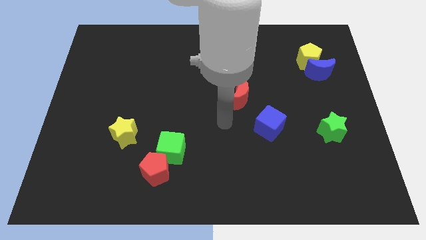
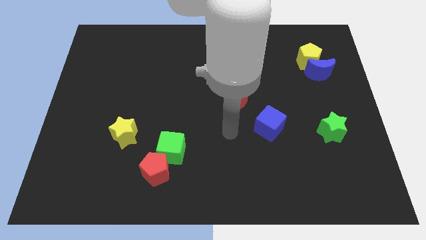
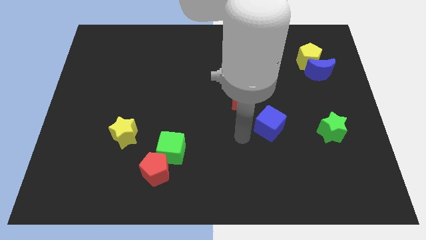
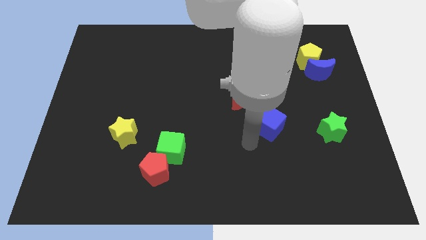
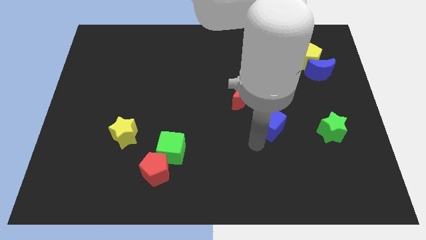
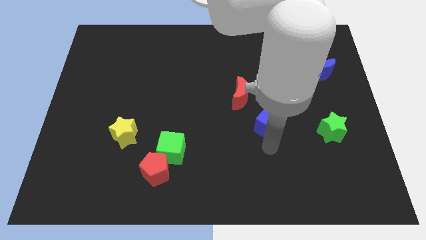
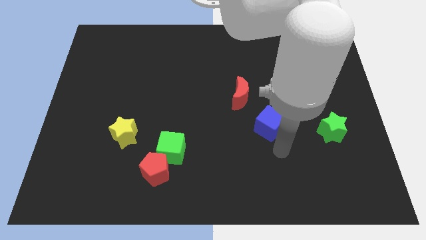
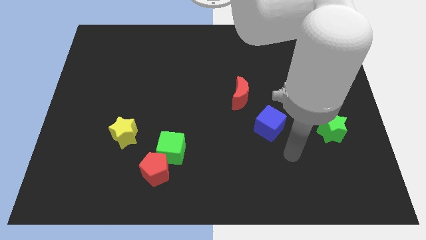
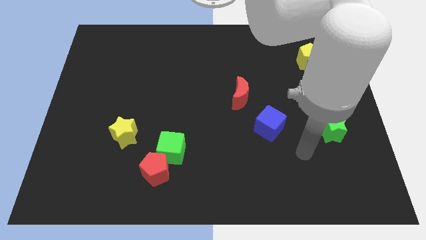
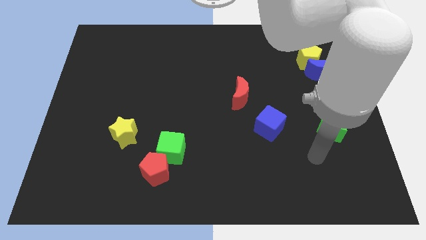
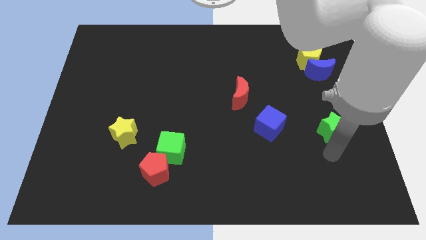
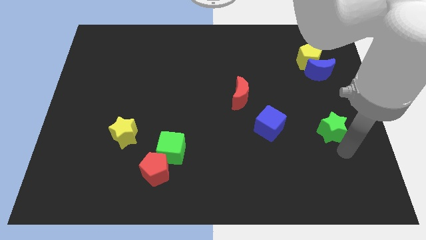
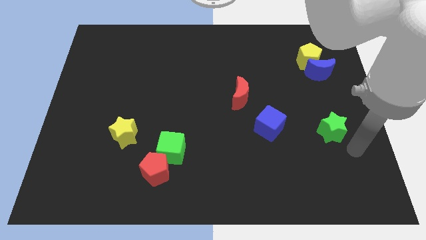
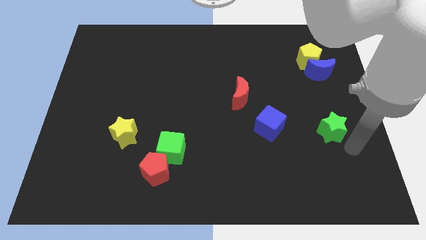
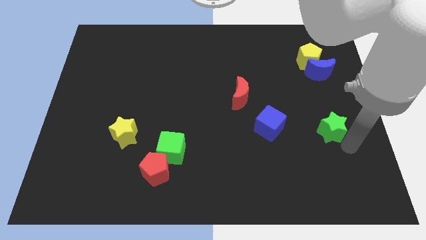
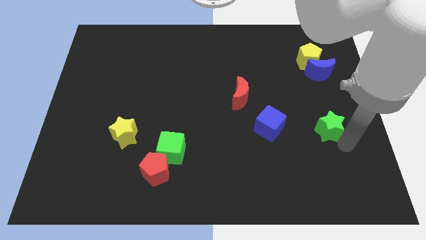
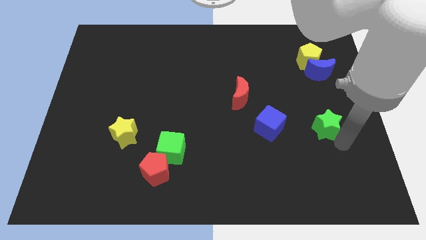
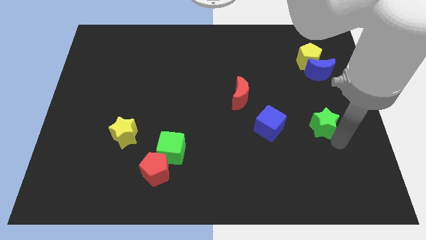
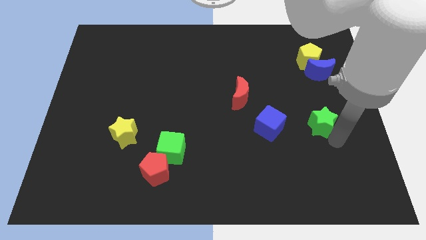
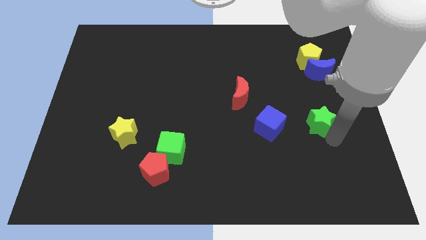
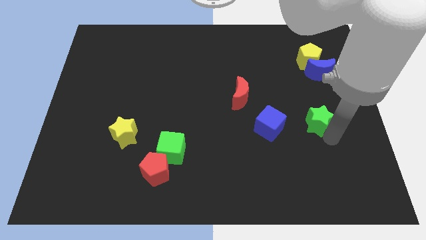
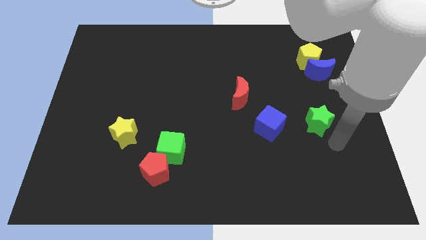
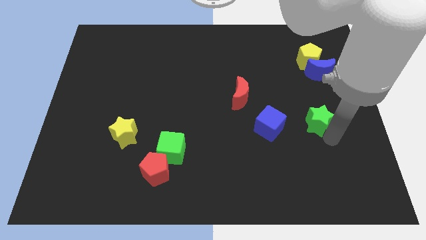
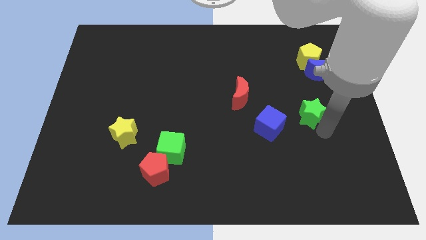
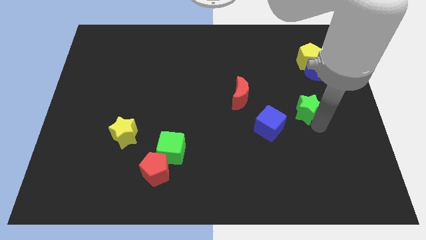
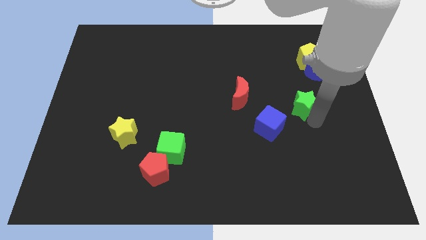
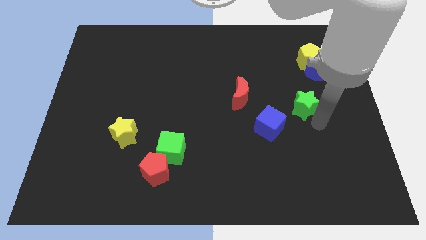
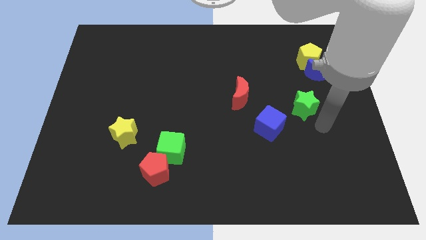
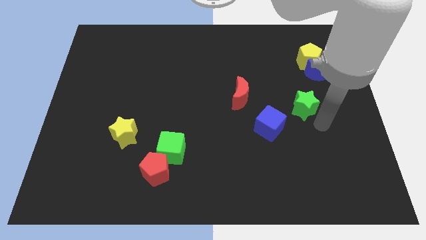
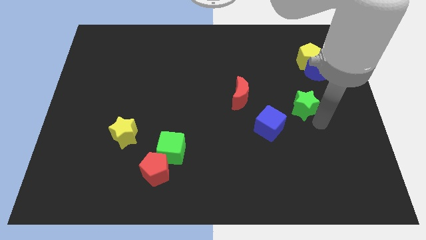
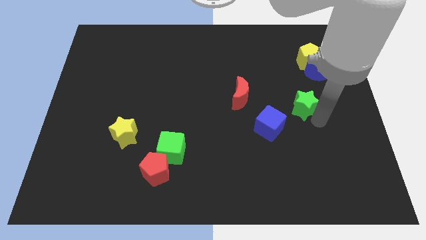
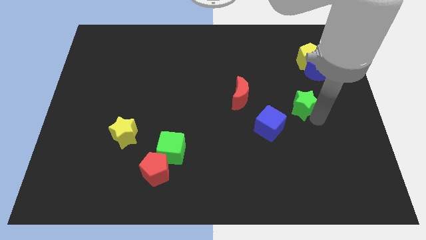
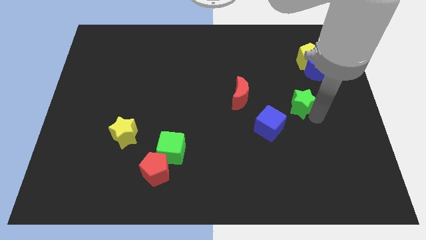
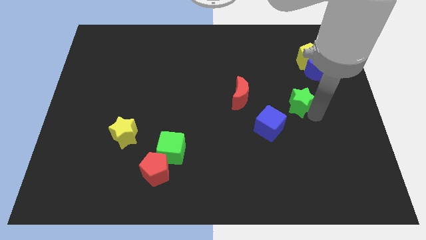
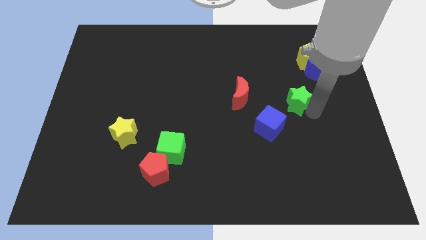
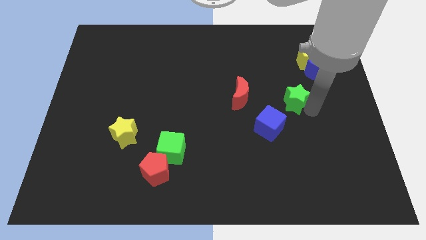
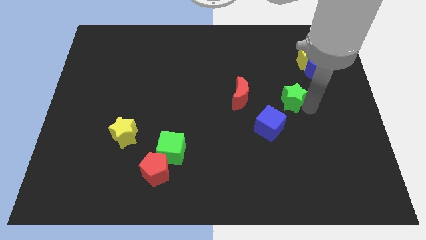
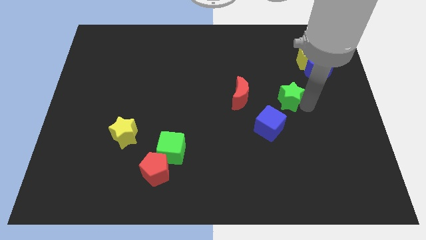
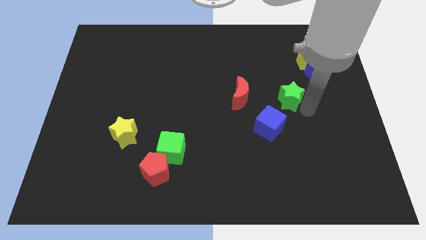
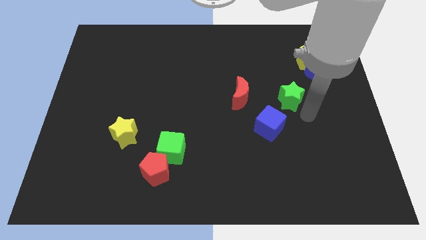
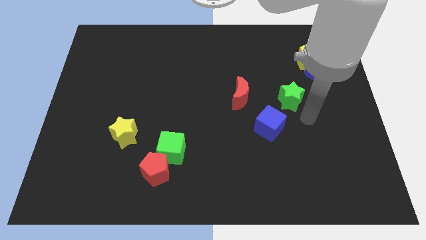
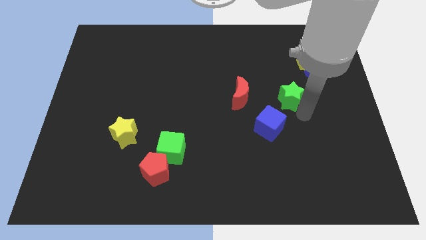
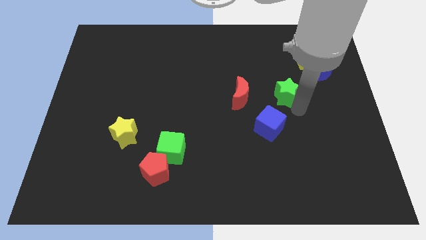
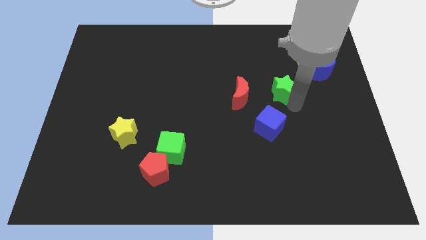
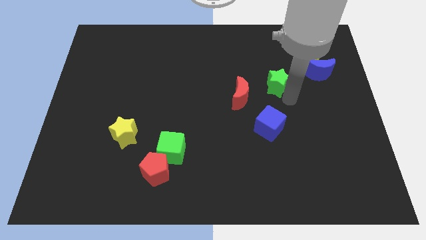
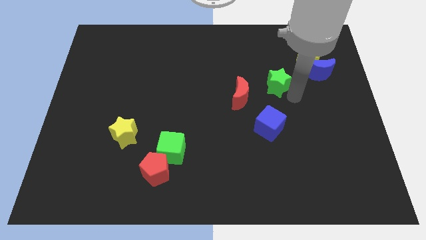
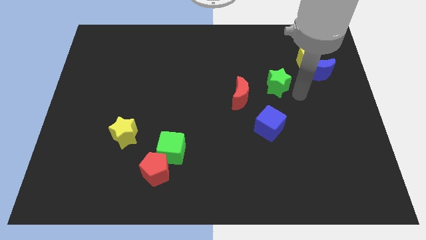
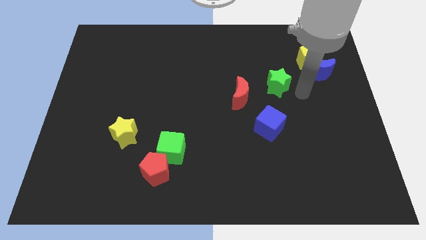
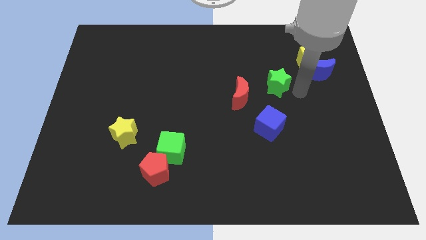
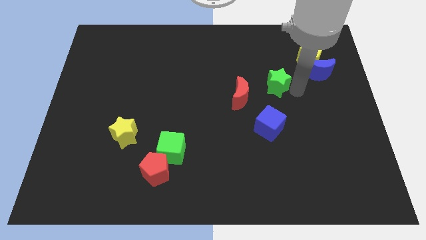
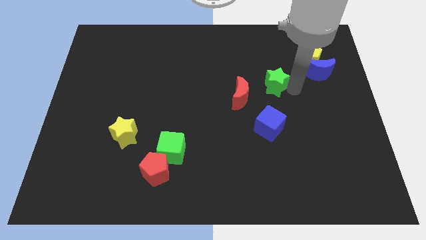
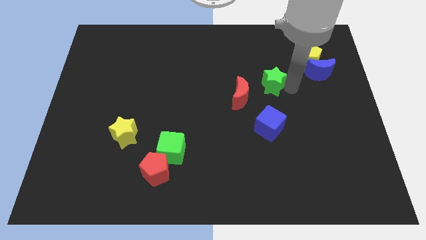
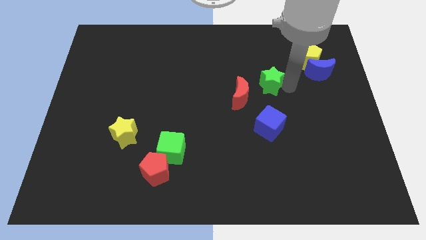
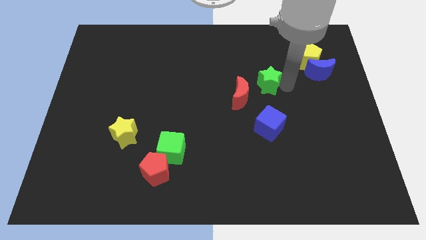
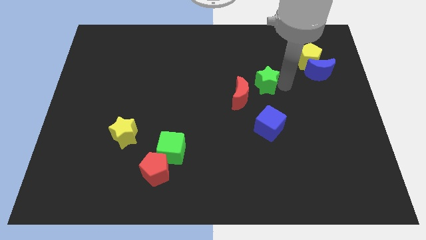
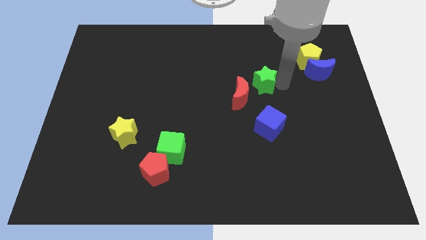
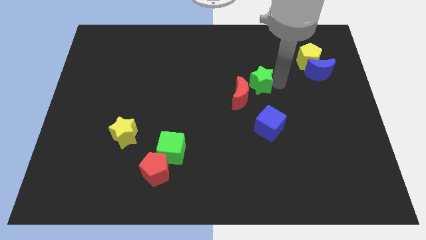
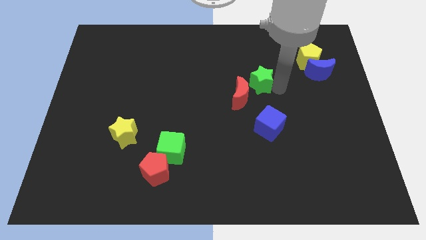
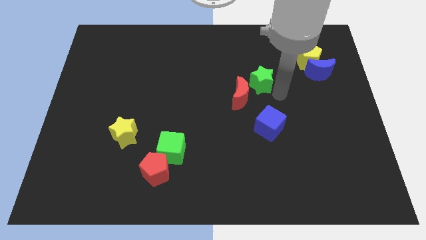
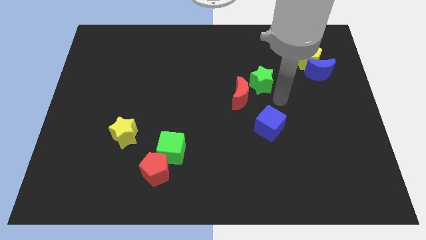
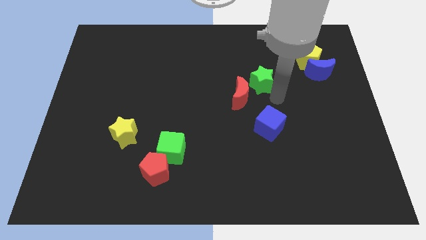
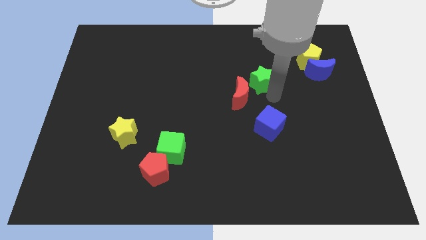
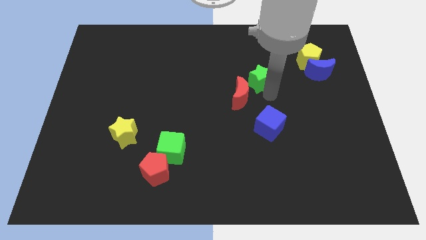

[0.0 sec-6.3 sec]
slide the green star above the red moon

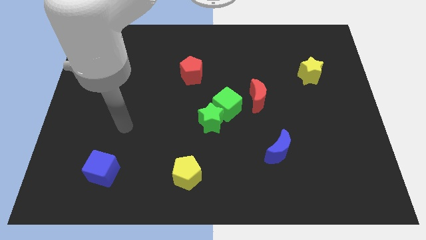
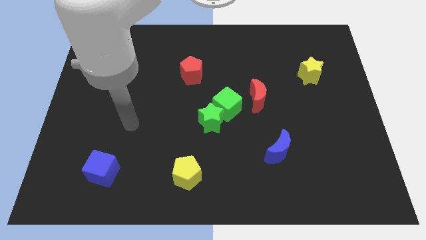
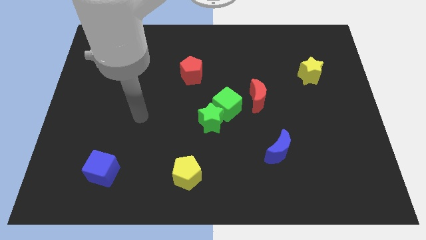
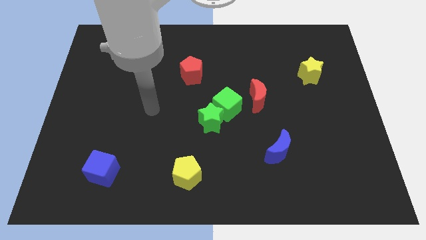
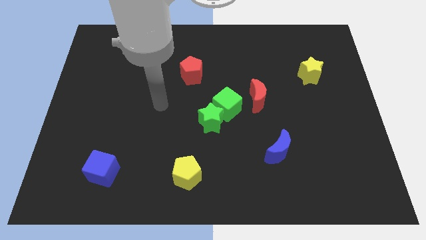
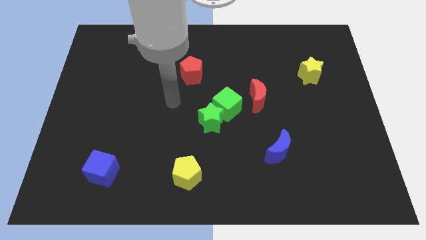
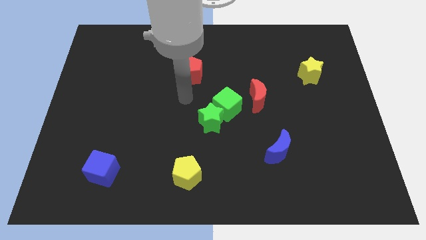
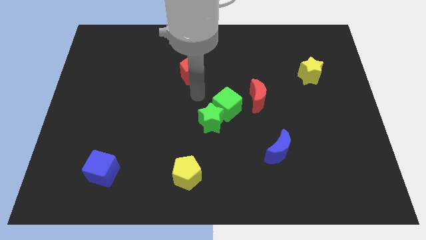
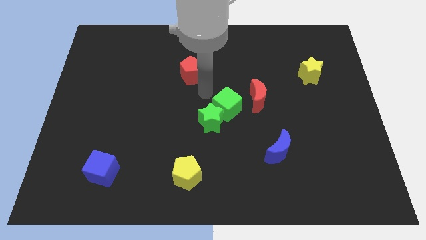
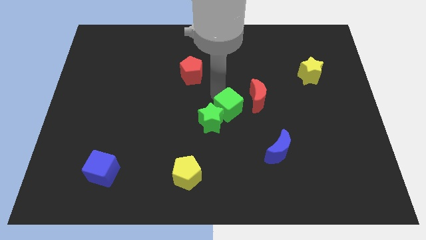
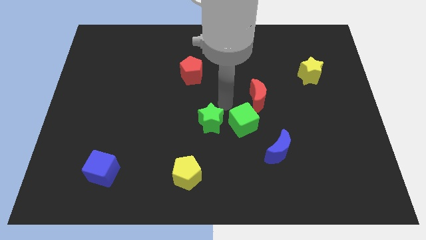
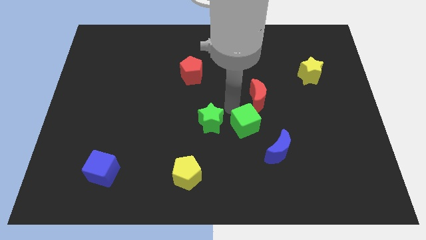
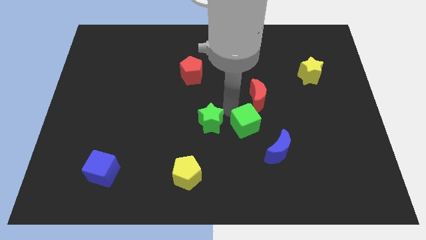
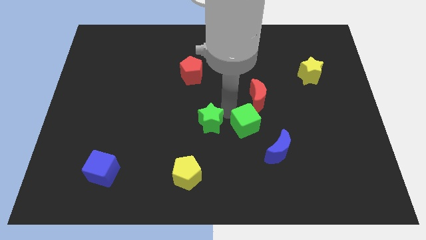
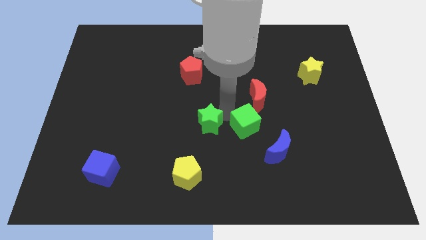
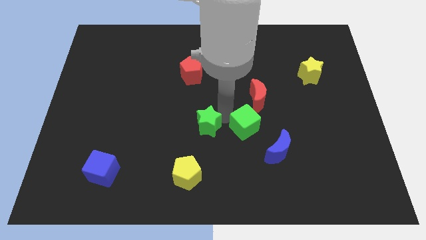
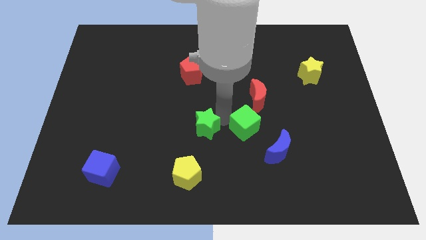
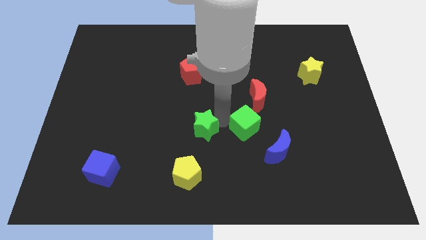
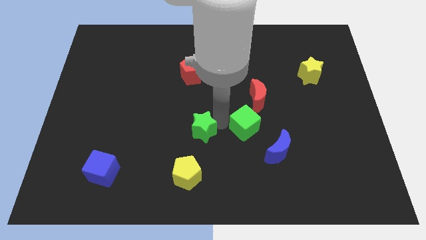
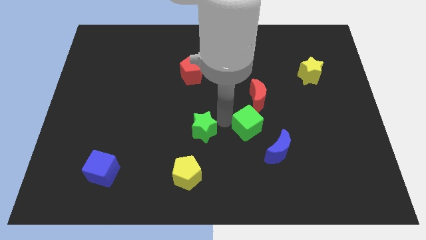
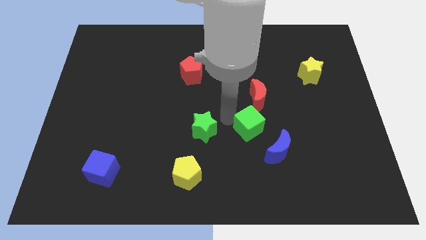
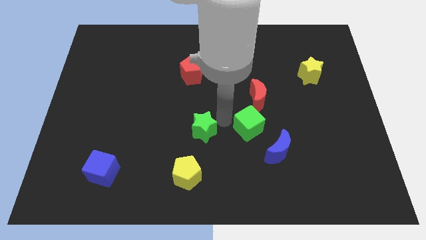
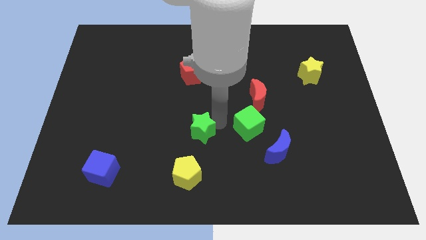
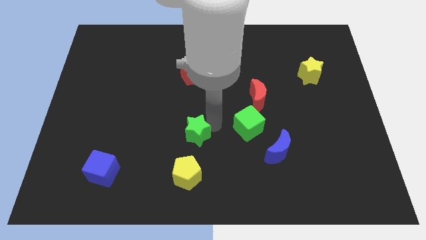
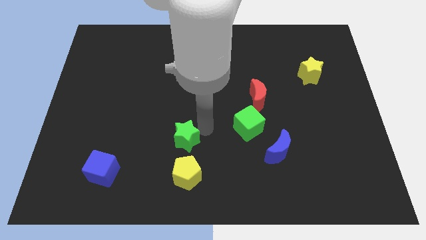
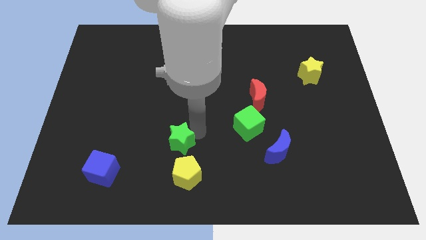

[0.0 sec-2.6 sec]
put the green star to the top left side of the yellow pentagon
